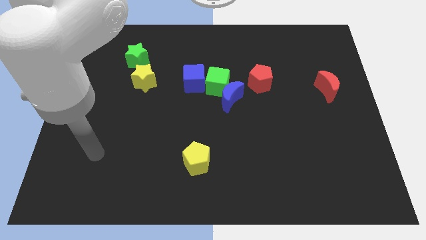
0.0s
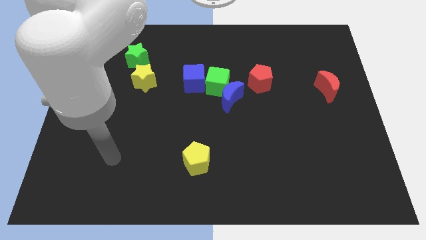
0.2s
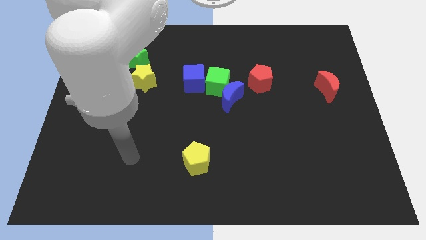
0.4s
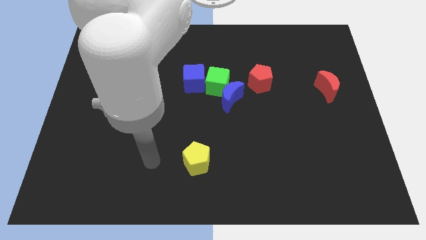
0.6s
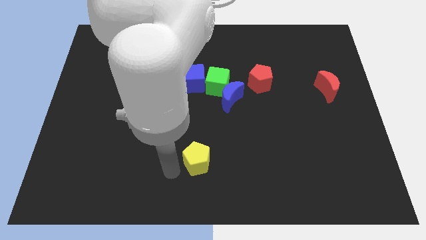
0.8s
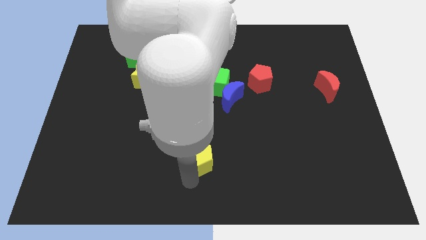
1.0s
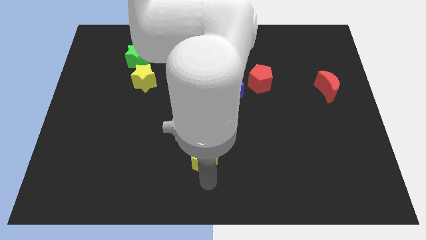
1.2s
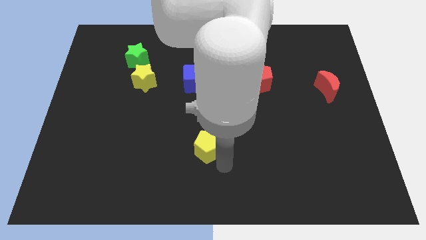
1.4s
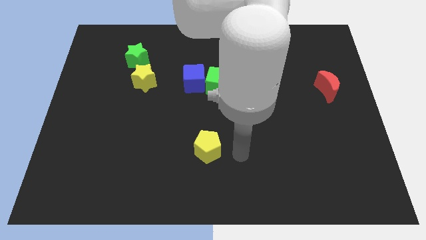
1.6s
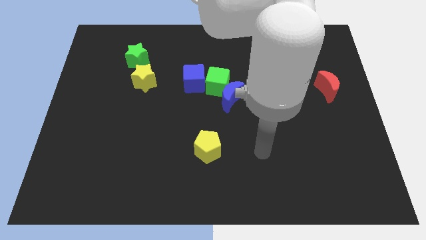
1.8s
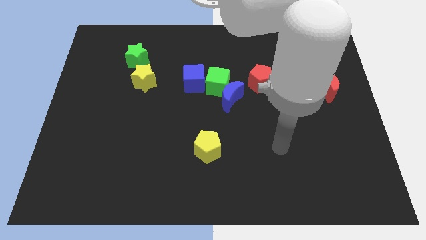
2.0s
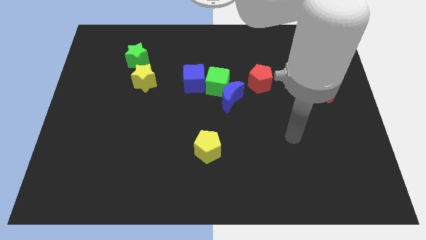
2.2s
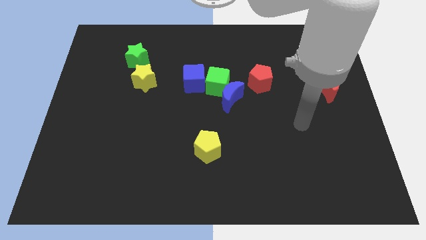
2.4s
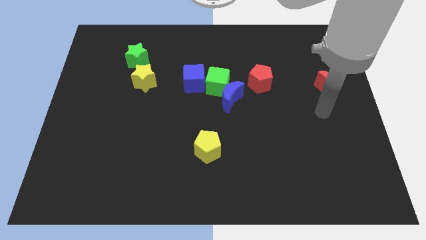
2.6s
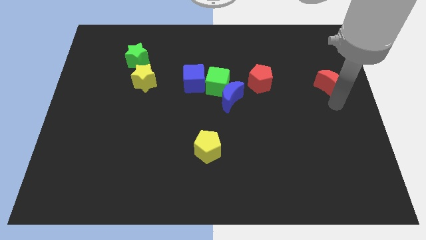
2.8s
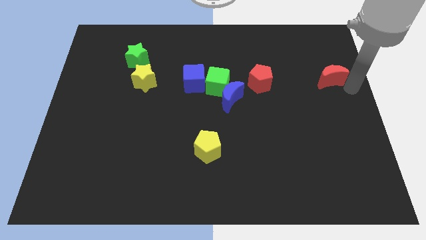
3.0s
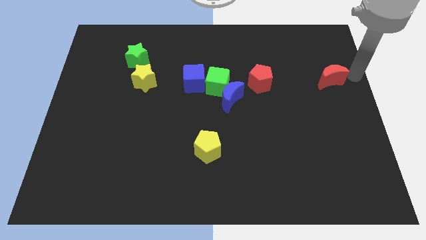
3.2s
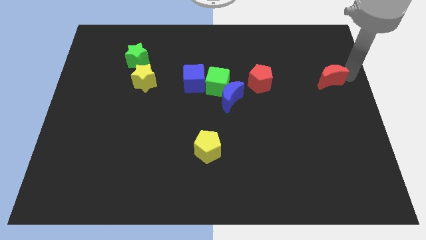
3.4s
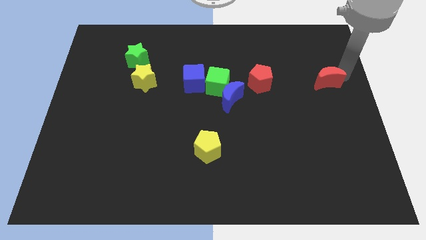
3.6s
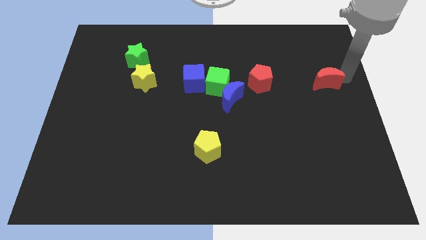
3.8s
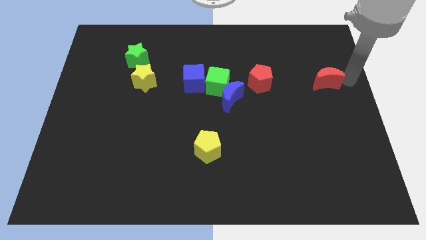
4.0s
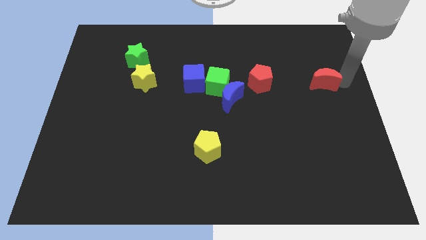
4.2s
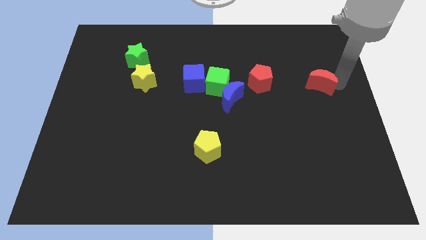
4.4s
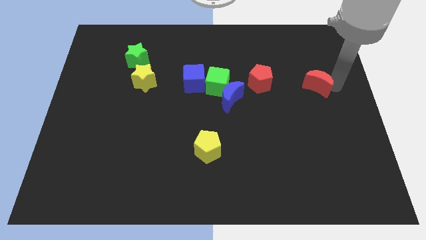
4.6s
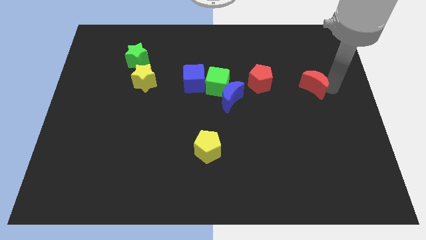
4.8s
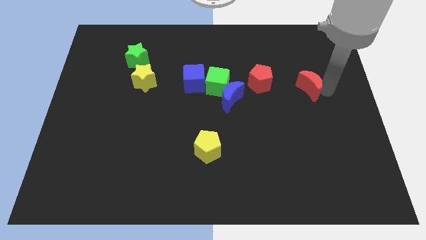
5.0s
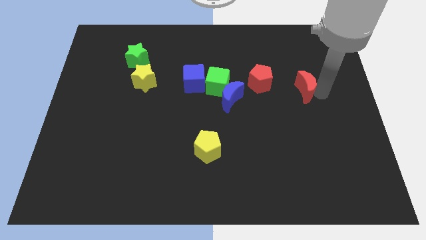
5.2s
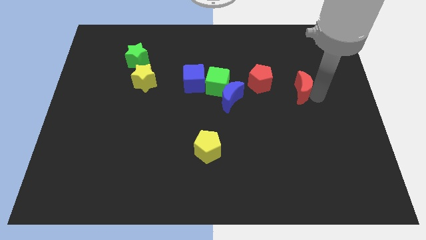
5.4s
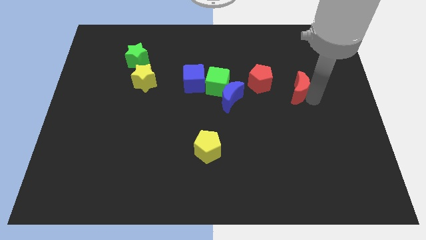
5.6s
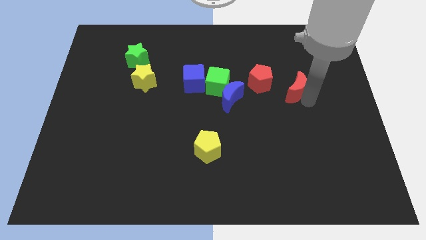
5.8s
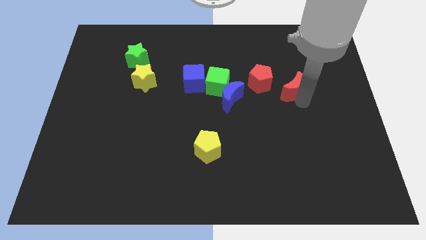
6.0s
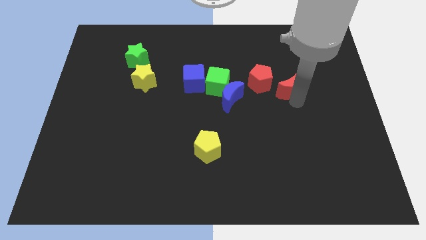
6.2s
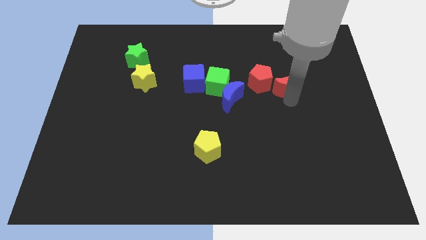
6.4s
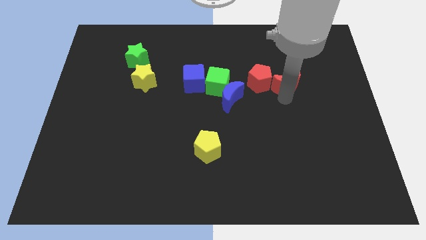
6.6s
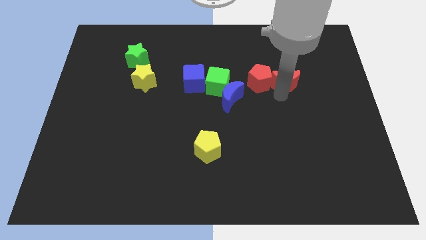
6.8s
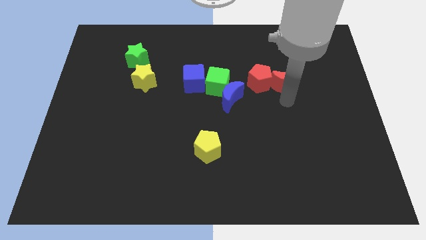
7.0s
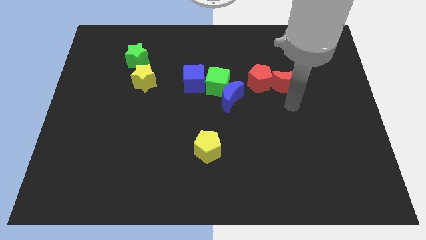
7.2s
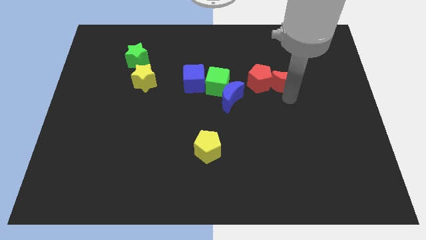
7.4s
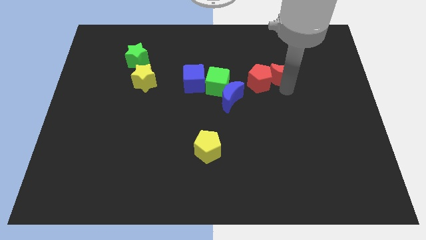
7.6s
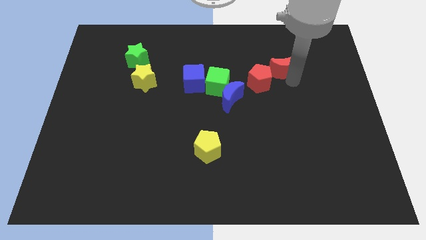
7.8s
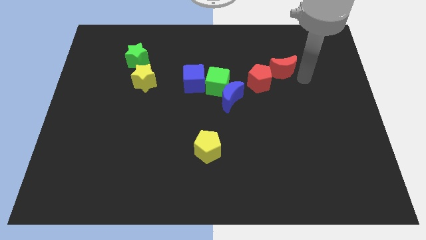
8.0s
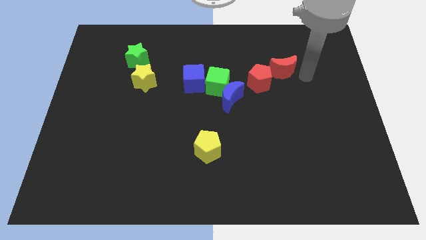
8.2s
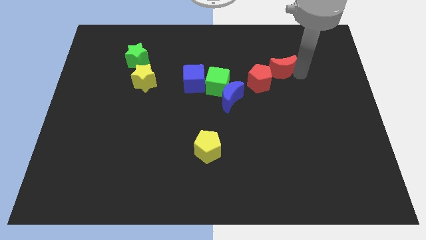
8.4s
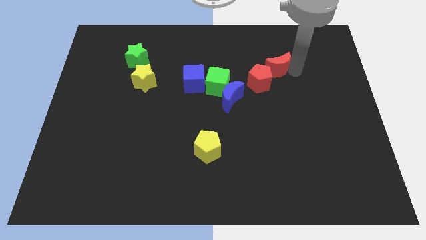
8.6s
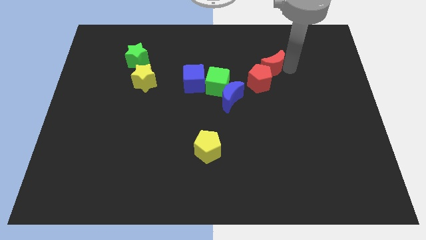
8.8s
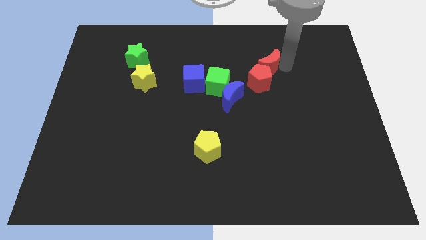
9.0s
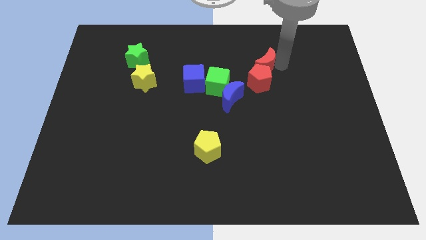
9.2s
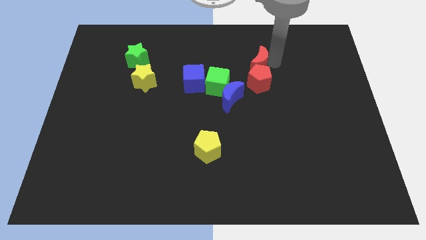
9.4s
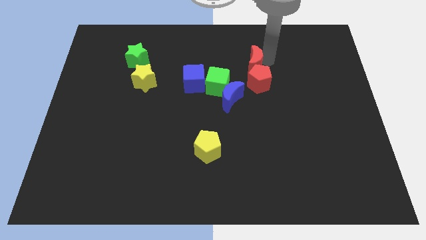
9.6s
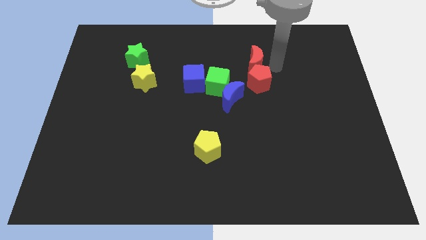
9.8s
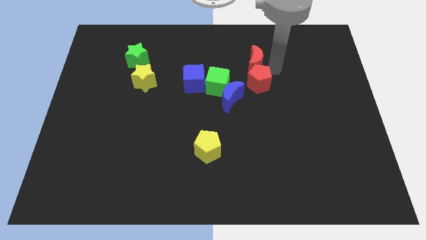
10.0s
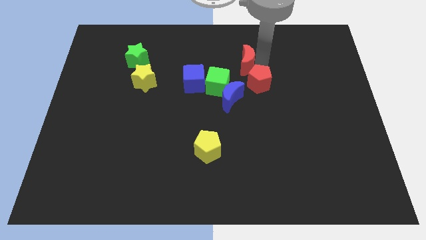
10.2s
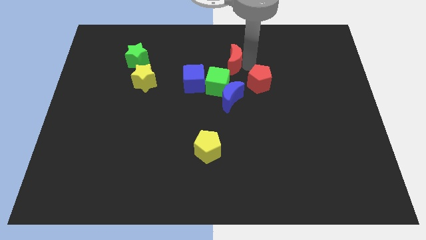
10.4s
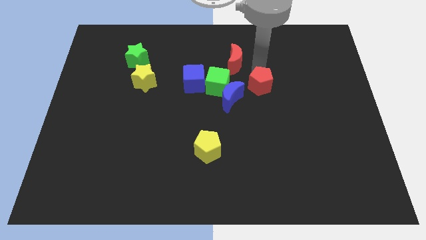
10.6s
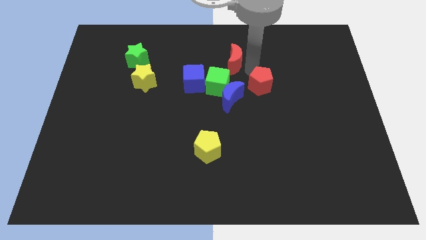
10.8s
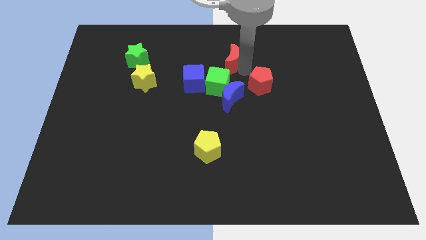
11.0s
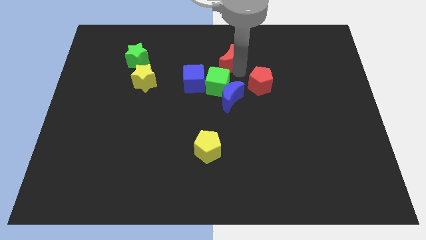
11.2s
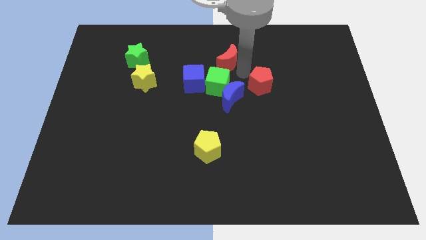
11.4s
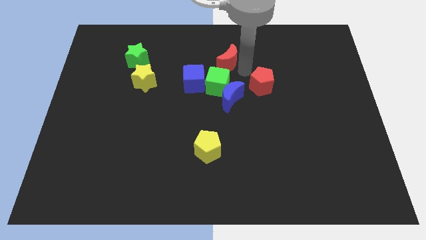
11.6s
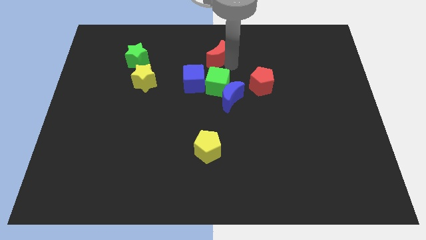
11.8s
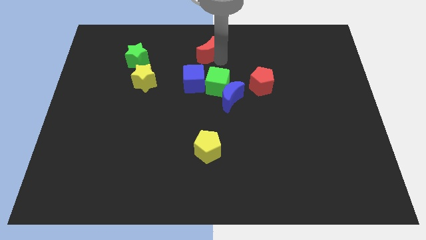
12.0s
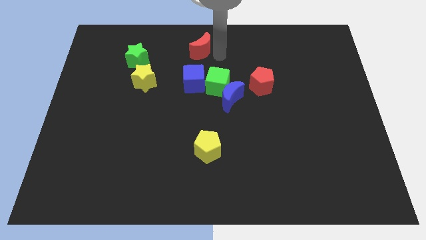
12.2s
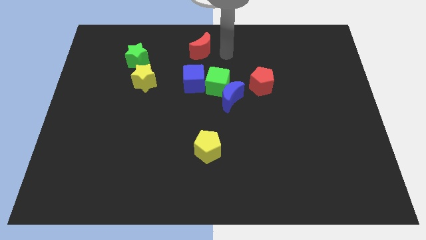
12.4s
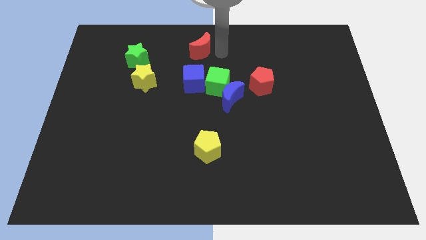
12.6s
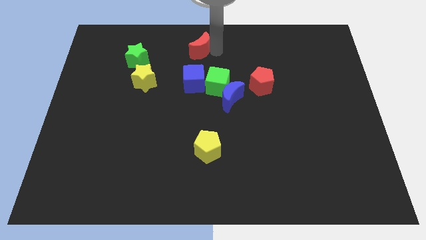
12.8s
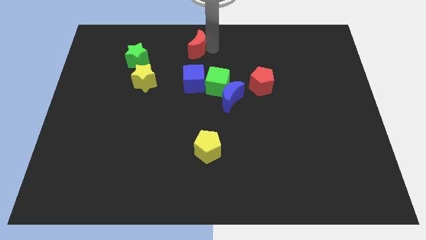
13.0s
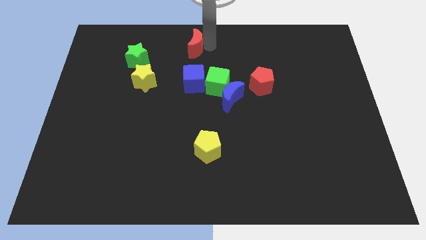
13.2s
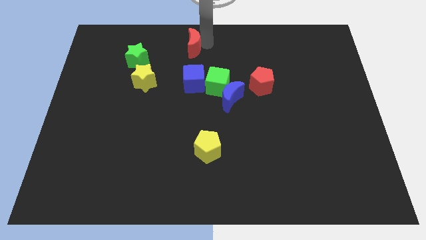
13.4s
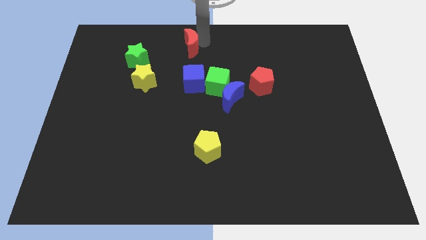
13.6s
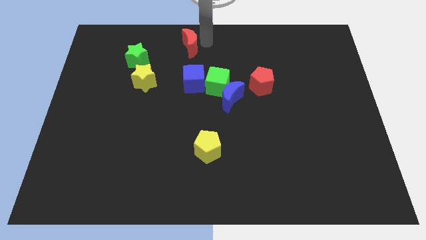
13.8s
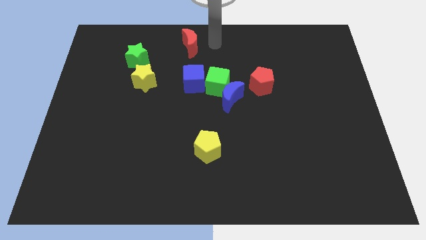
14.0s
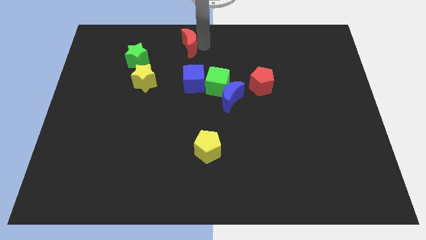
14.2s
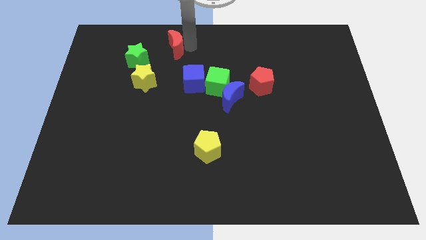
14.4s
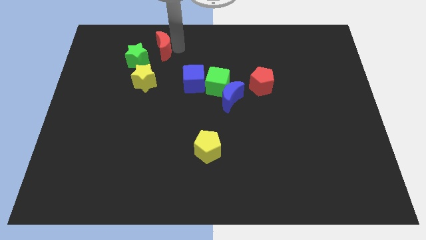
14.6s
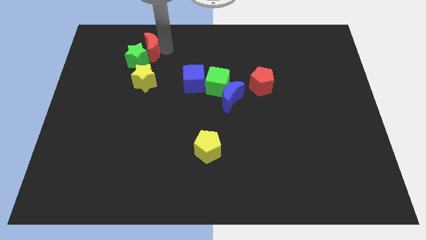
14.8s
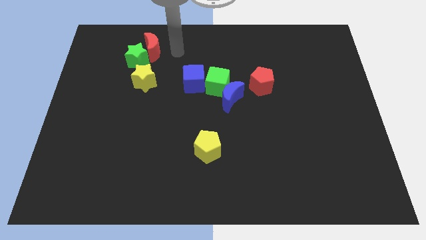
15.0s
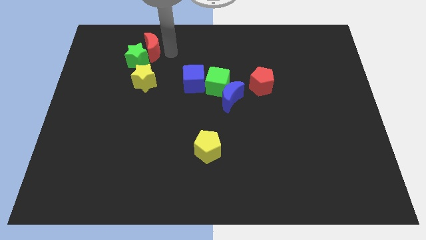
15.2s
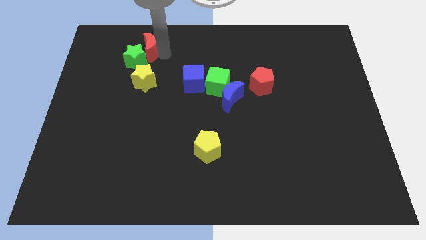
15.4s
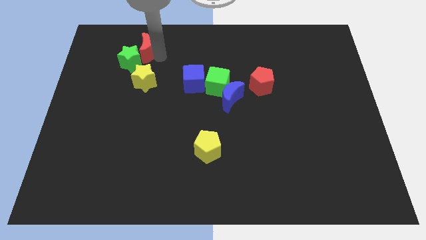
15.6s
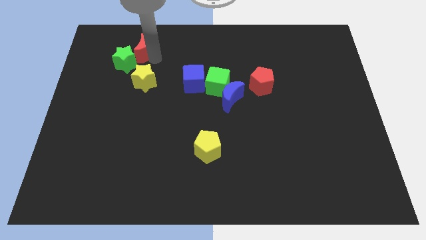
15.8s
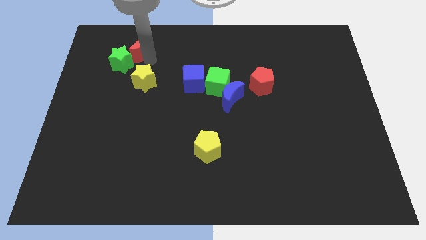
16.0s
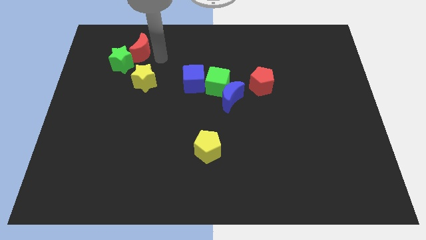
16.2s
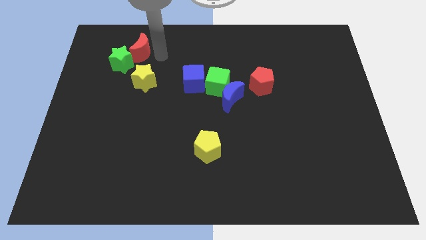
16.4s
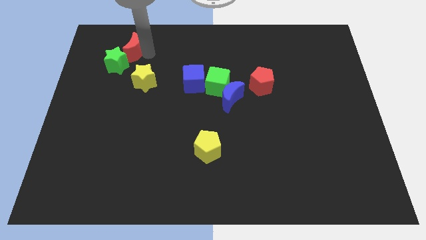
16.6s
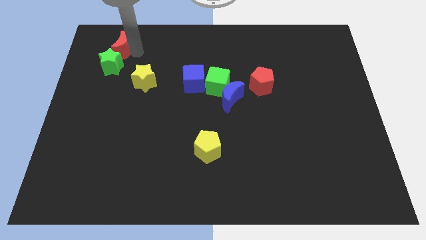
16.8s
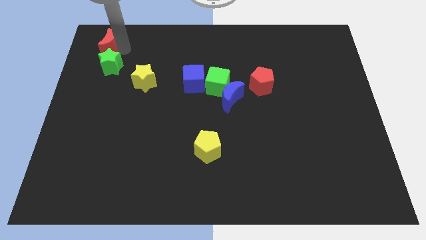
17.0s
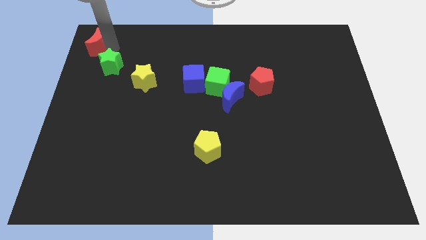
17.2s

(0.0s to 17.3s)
slide the red moon to the top left corner
